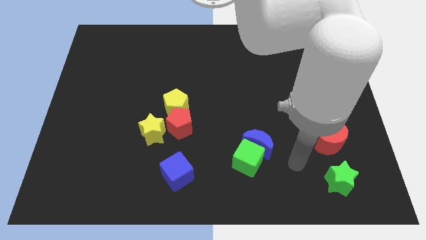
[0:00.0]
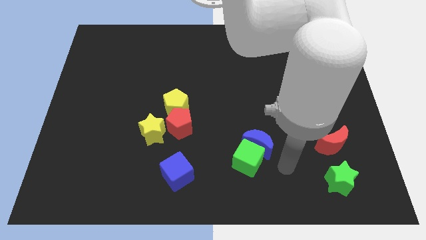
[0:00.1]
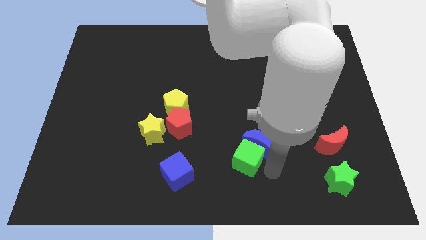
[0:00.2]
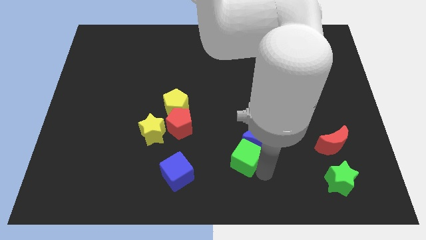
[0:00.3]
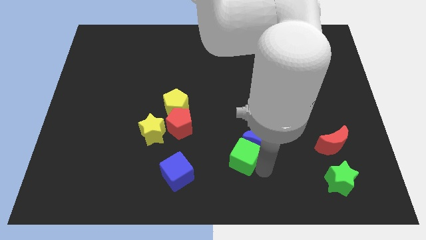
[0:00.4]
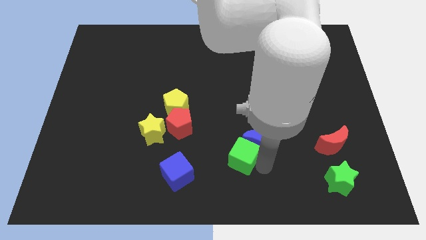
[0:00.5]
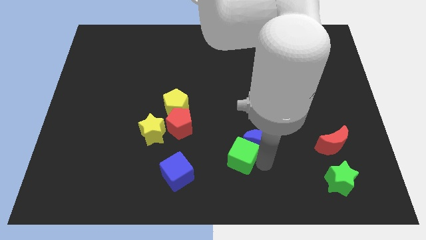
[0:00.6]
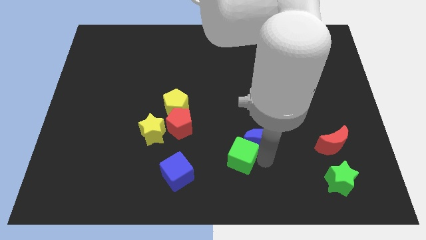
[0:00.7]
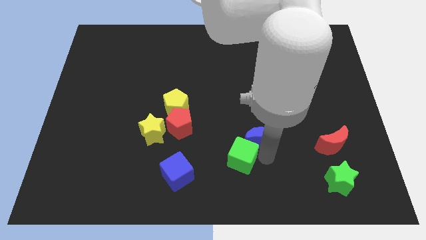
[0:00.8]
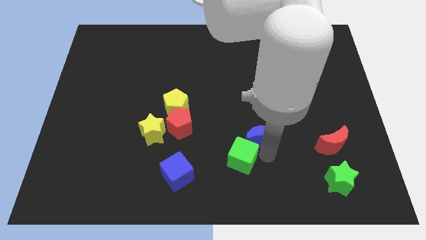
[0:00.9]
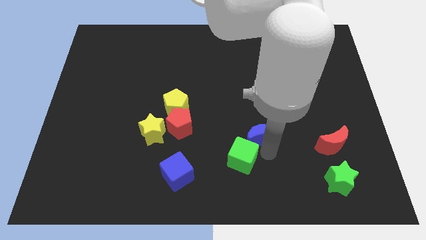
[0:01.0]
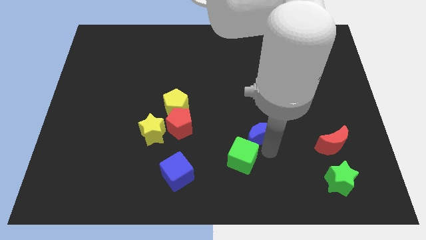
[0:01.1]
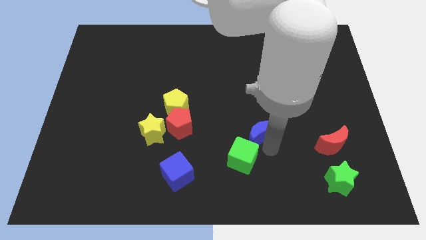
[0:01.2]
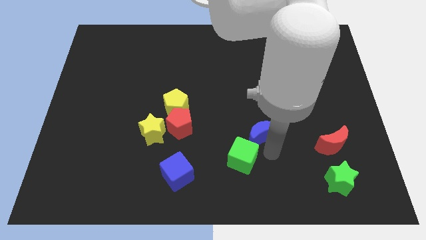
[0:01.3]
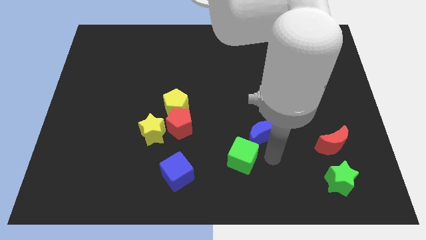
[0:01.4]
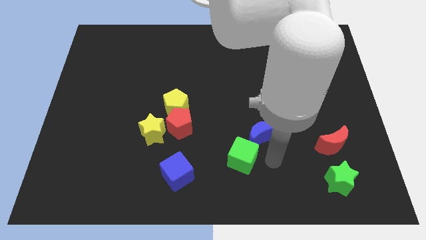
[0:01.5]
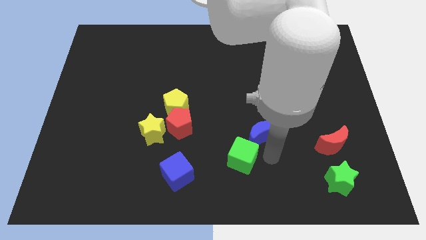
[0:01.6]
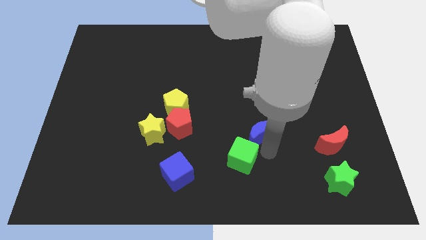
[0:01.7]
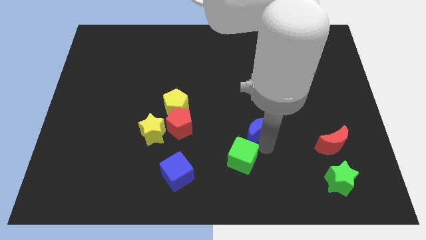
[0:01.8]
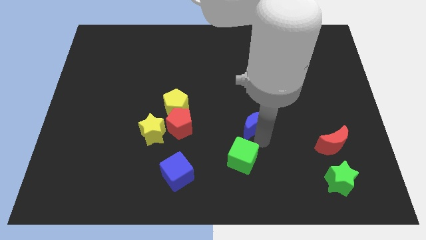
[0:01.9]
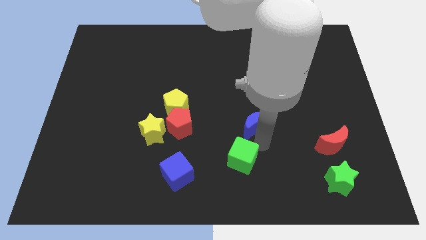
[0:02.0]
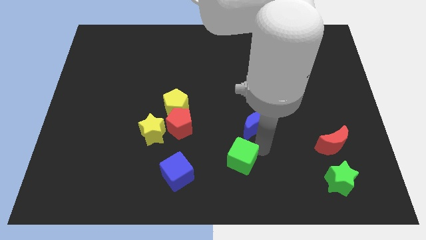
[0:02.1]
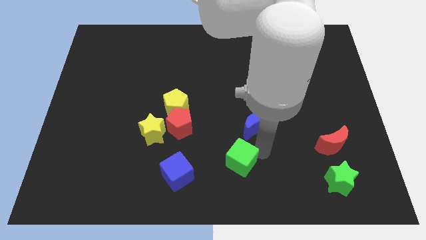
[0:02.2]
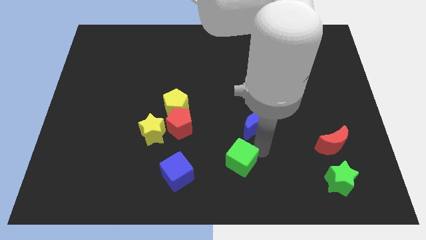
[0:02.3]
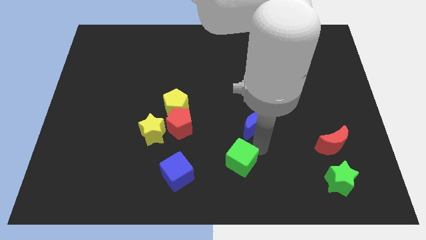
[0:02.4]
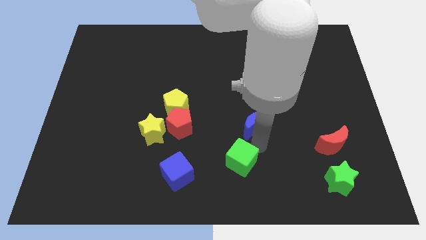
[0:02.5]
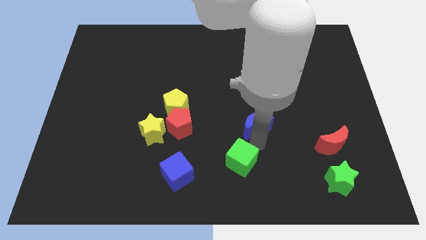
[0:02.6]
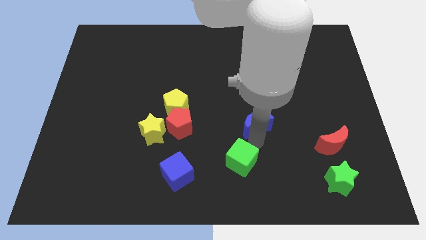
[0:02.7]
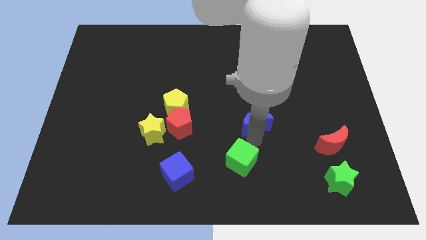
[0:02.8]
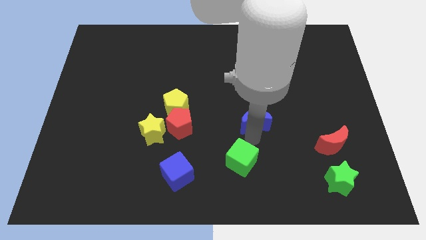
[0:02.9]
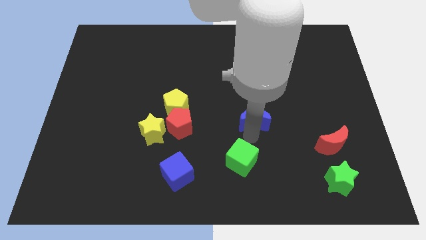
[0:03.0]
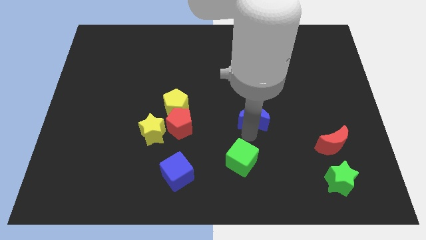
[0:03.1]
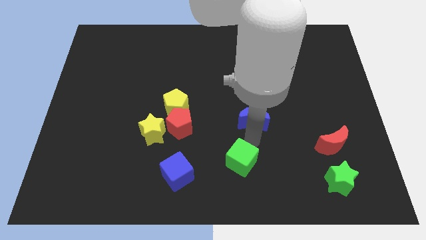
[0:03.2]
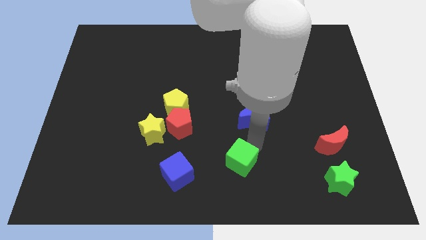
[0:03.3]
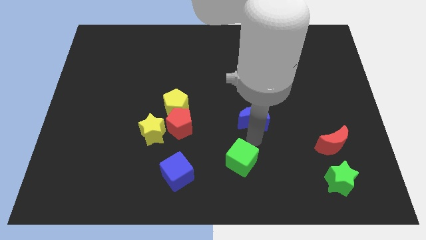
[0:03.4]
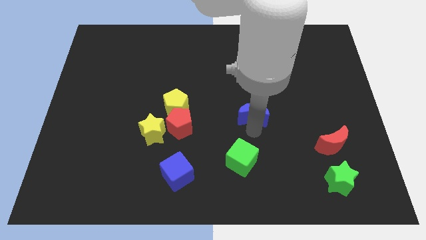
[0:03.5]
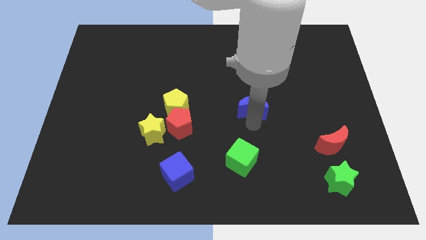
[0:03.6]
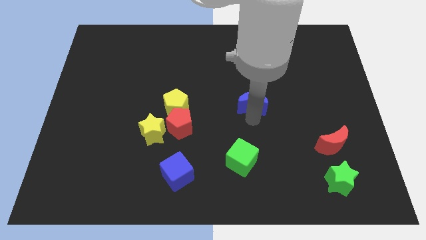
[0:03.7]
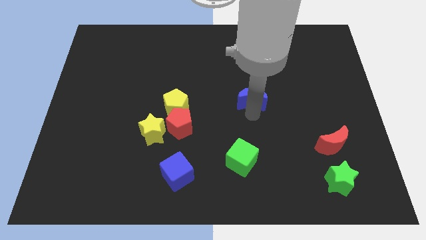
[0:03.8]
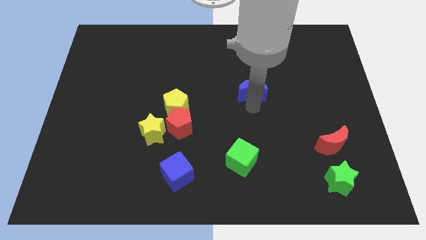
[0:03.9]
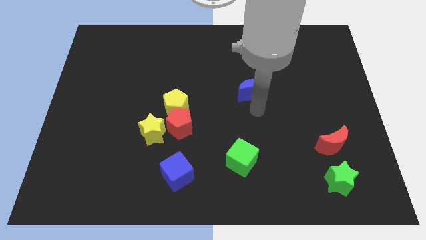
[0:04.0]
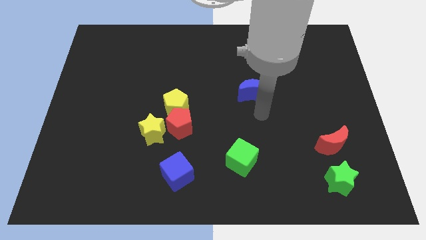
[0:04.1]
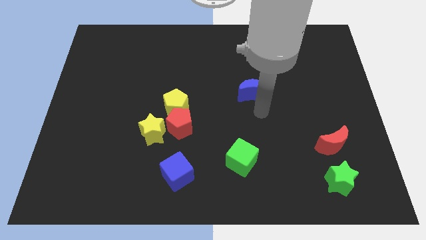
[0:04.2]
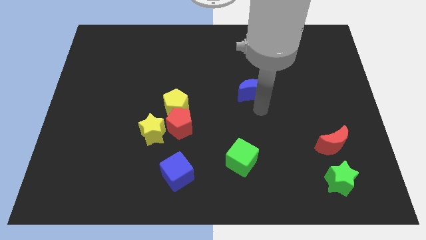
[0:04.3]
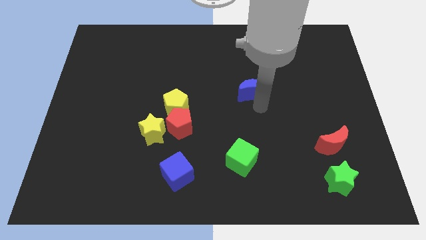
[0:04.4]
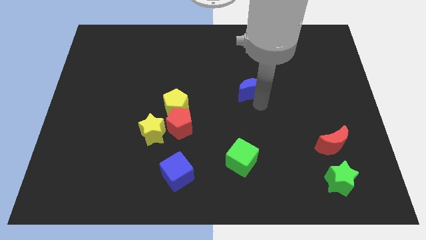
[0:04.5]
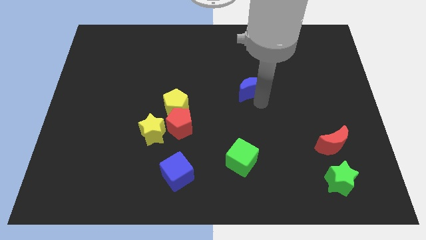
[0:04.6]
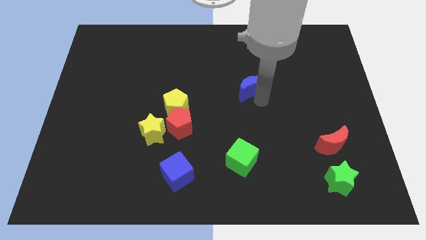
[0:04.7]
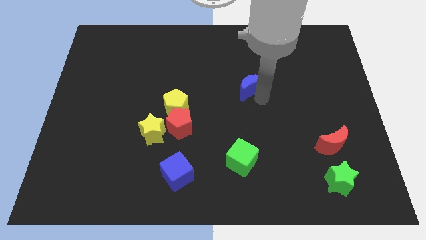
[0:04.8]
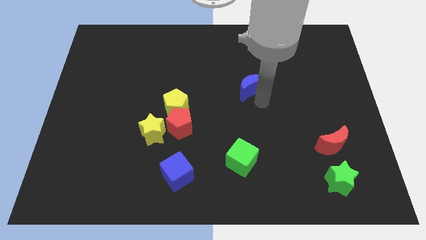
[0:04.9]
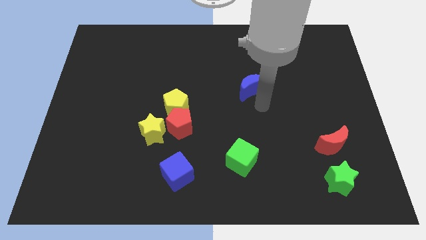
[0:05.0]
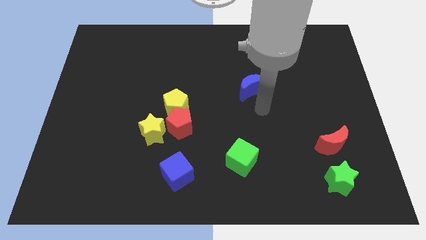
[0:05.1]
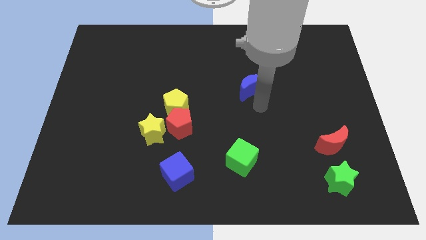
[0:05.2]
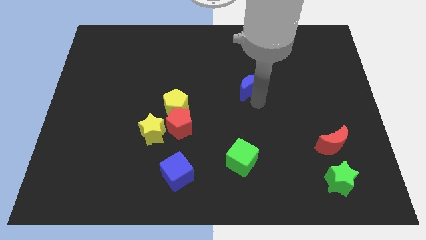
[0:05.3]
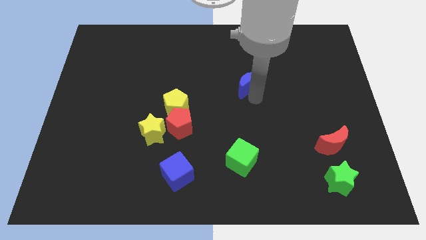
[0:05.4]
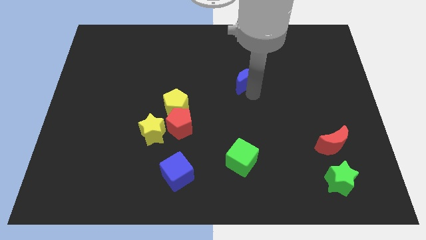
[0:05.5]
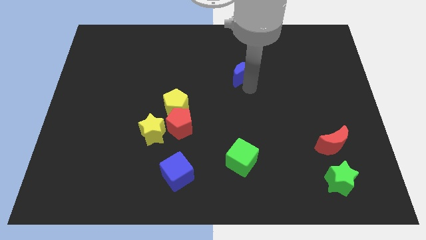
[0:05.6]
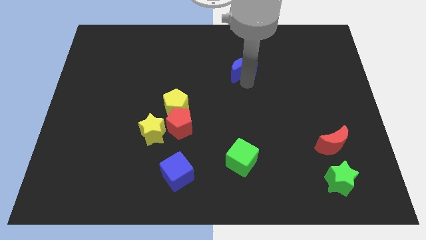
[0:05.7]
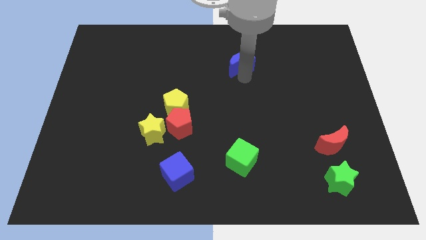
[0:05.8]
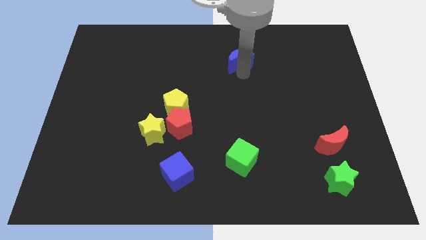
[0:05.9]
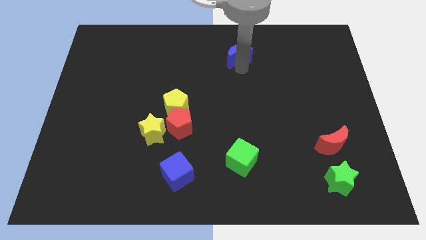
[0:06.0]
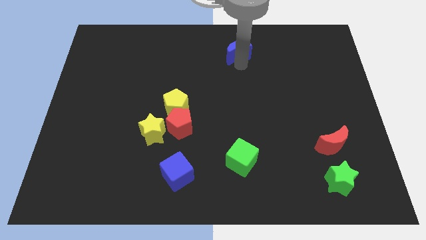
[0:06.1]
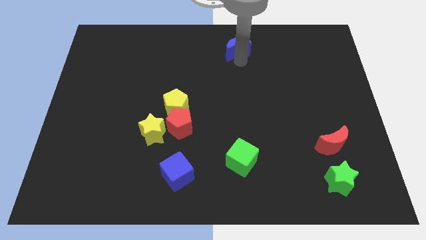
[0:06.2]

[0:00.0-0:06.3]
put the blue moon to the towards your base

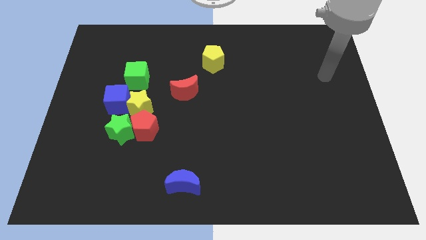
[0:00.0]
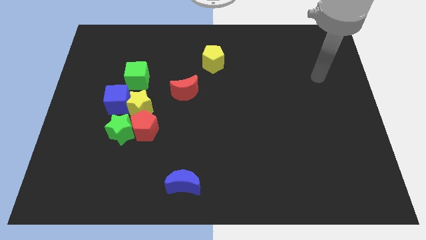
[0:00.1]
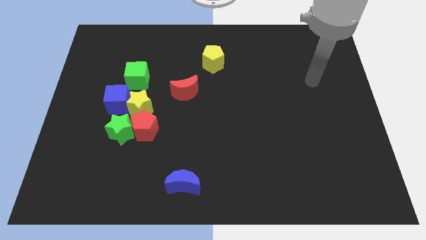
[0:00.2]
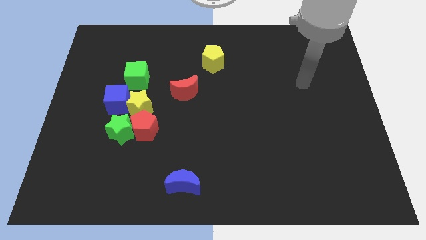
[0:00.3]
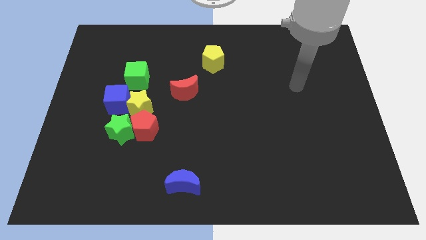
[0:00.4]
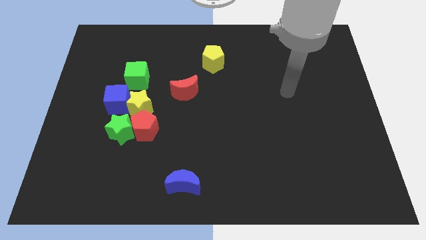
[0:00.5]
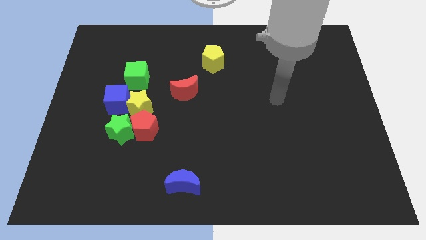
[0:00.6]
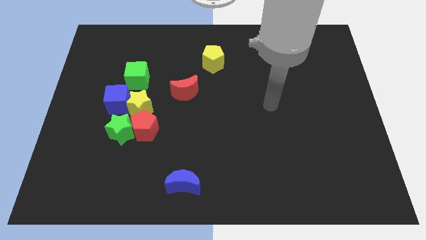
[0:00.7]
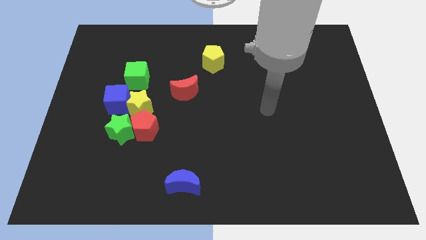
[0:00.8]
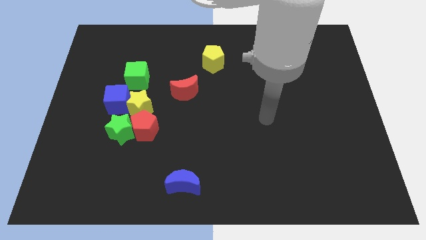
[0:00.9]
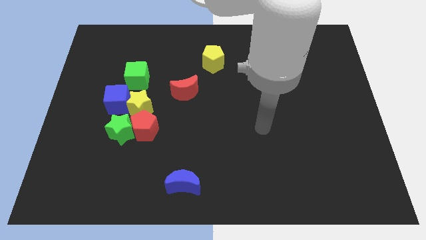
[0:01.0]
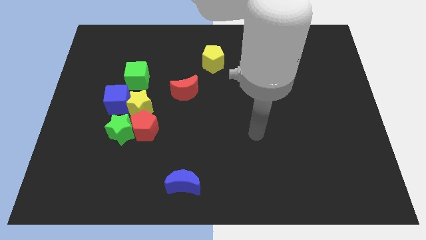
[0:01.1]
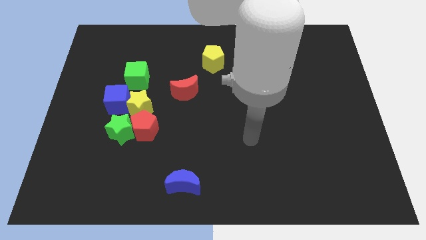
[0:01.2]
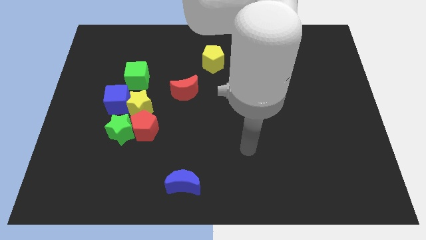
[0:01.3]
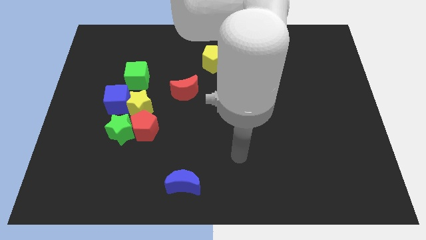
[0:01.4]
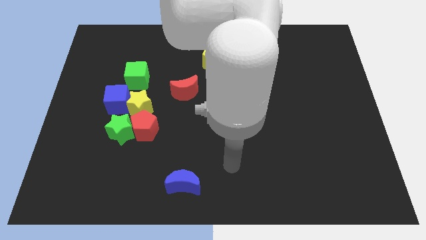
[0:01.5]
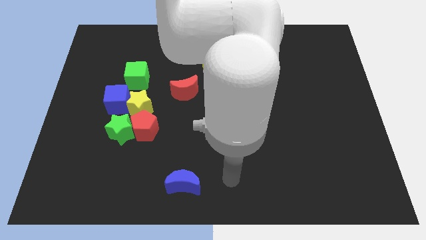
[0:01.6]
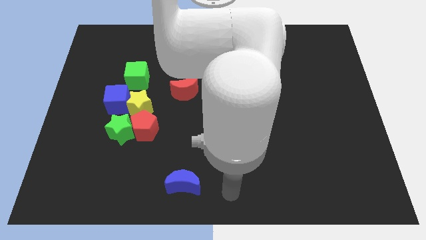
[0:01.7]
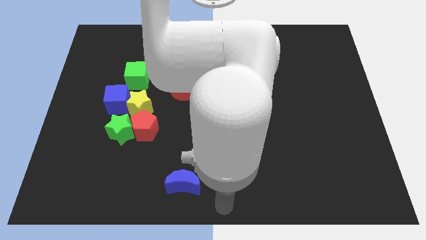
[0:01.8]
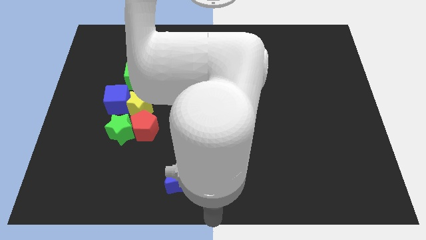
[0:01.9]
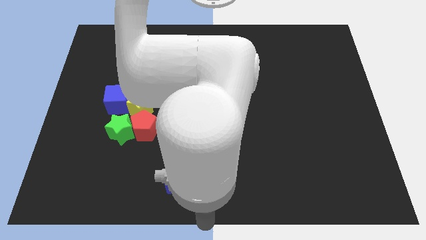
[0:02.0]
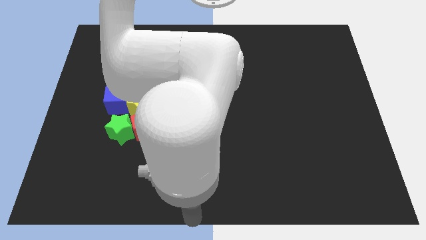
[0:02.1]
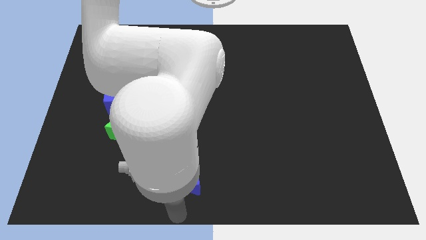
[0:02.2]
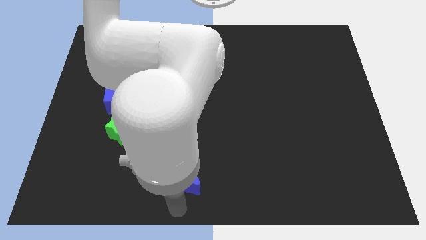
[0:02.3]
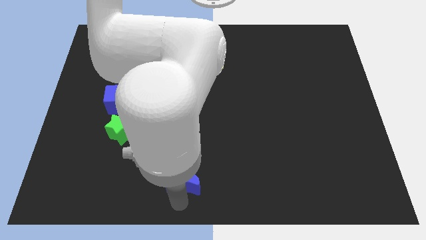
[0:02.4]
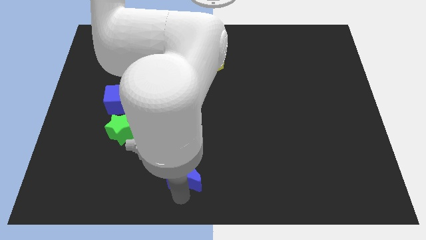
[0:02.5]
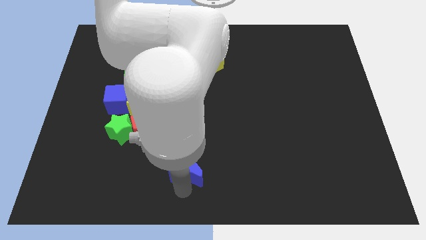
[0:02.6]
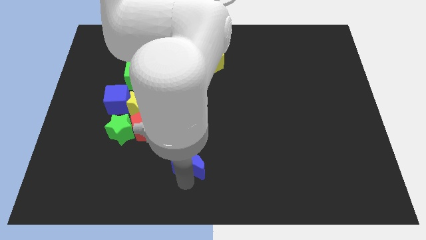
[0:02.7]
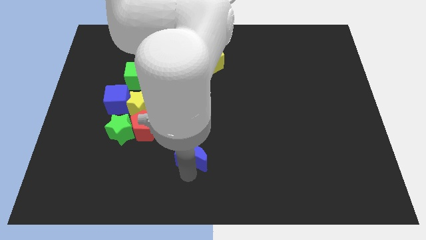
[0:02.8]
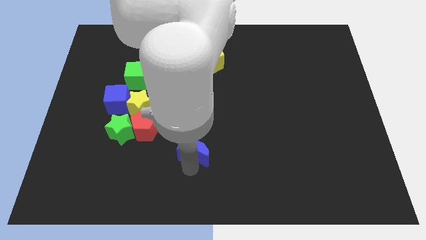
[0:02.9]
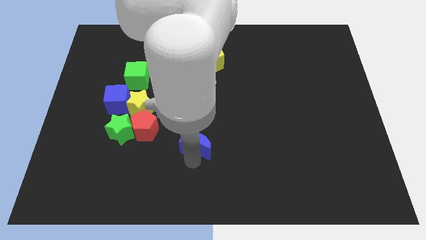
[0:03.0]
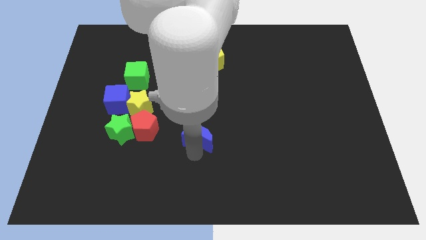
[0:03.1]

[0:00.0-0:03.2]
put the blue moon to the center of the board
